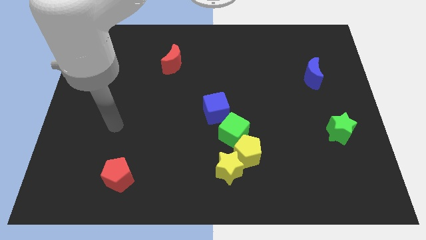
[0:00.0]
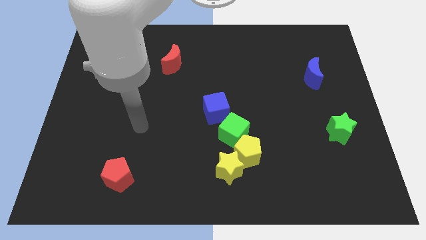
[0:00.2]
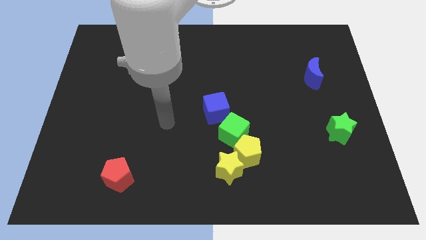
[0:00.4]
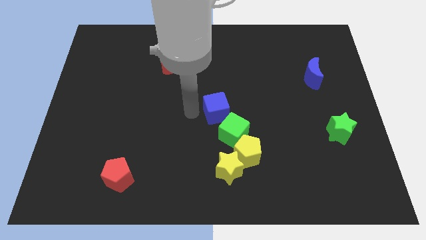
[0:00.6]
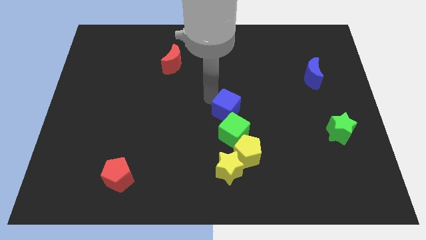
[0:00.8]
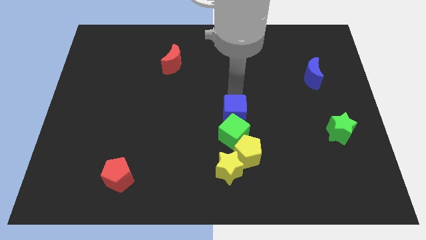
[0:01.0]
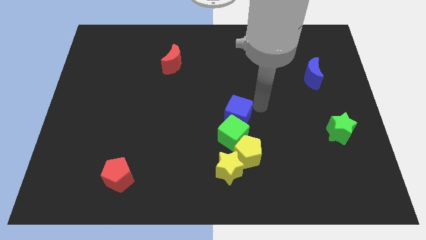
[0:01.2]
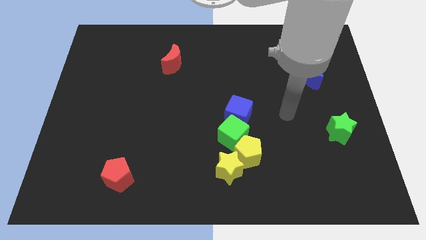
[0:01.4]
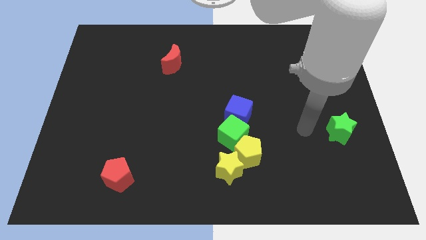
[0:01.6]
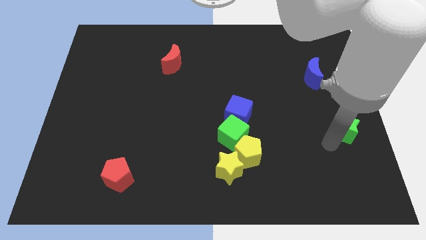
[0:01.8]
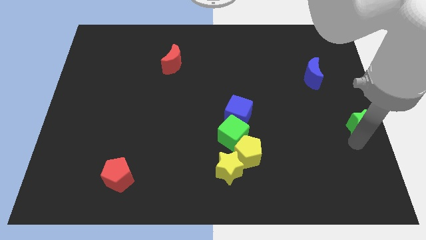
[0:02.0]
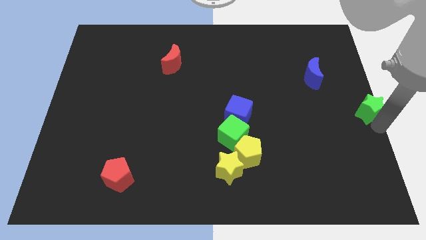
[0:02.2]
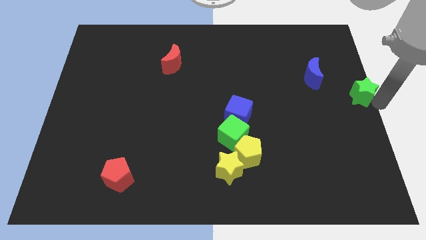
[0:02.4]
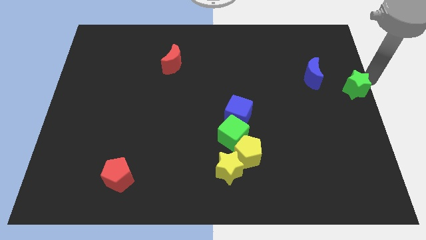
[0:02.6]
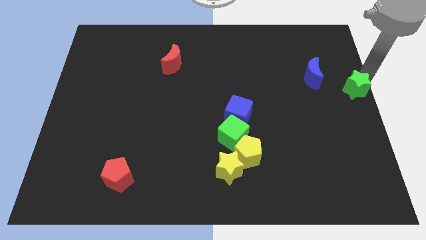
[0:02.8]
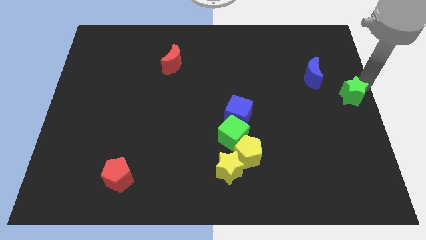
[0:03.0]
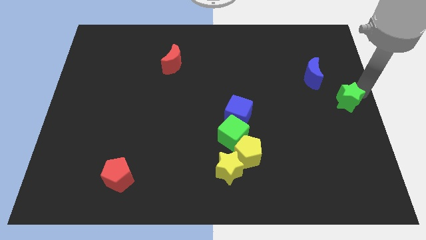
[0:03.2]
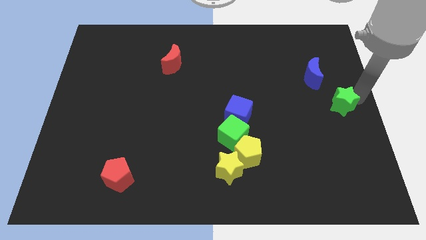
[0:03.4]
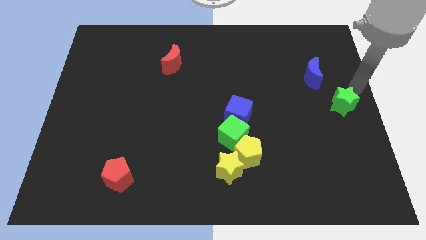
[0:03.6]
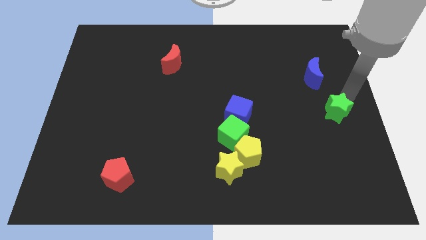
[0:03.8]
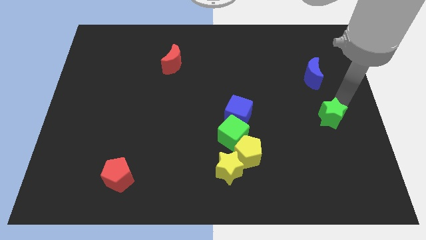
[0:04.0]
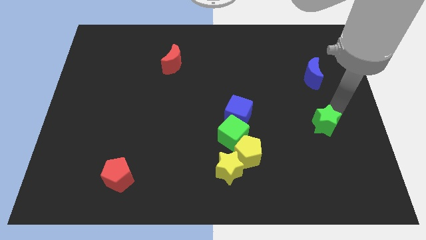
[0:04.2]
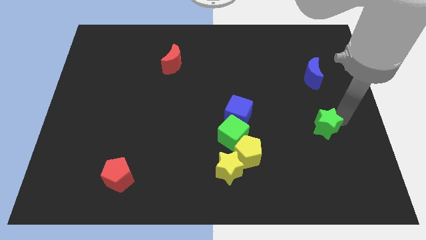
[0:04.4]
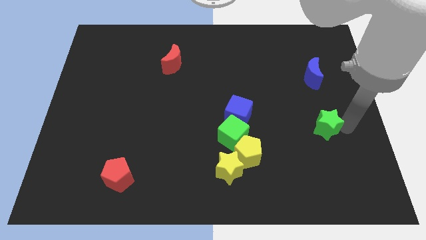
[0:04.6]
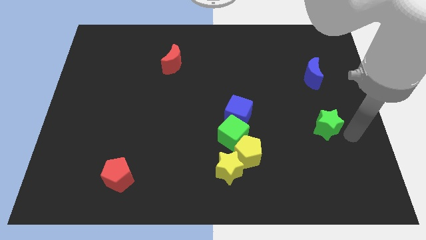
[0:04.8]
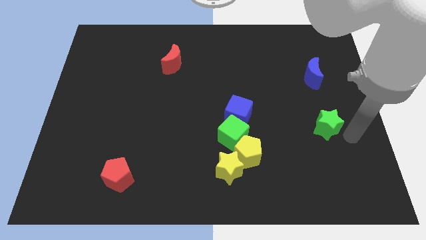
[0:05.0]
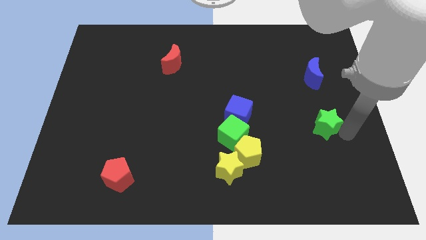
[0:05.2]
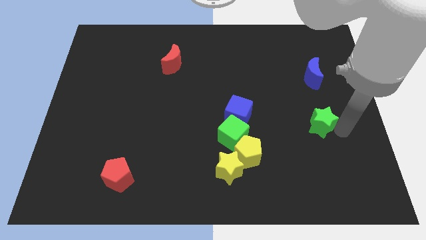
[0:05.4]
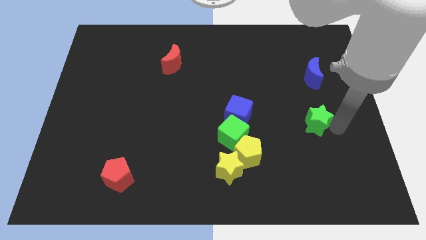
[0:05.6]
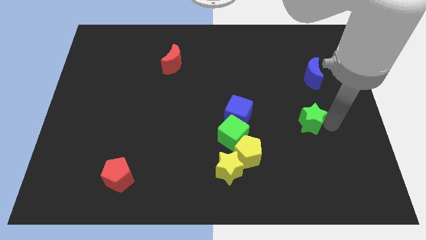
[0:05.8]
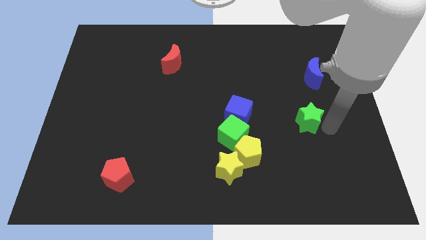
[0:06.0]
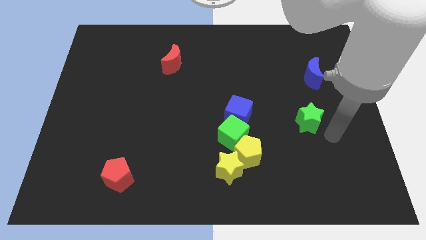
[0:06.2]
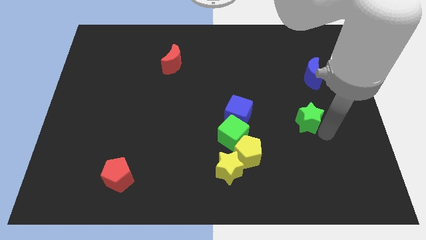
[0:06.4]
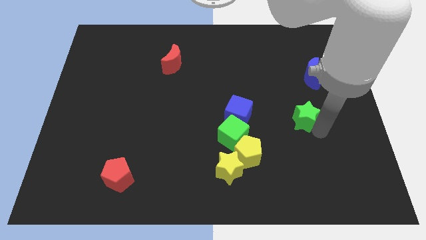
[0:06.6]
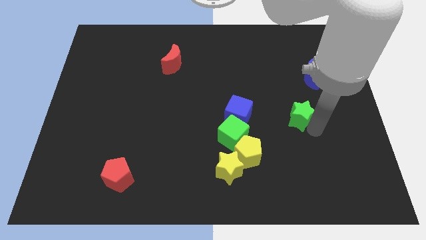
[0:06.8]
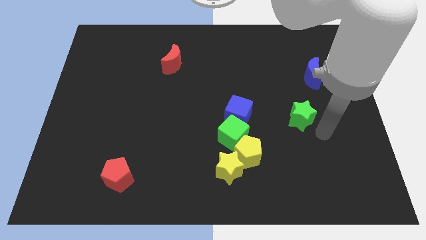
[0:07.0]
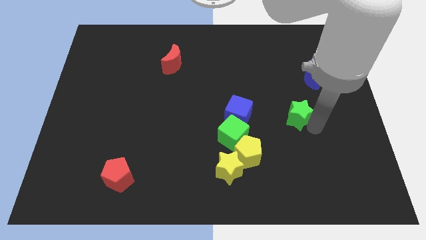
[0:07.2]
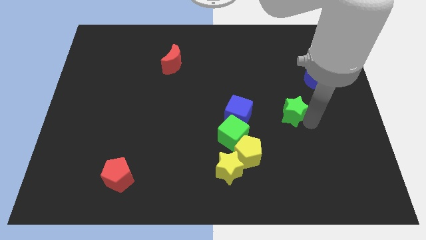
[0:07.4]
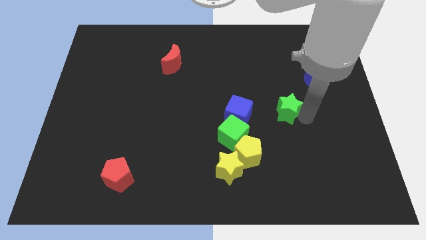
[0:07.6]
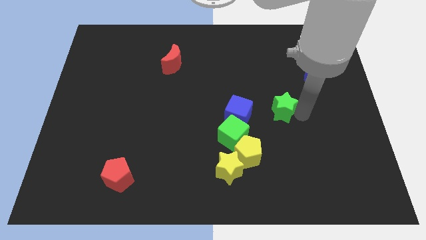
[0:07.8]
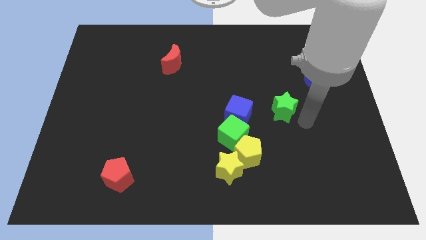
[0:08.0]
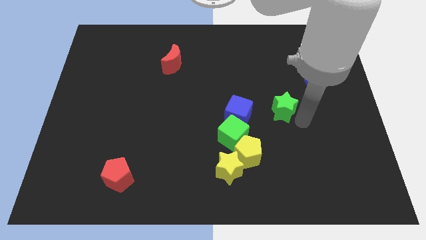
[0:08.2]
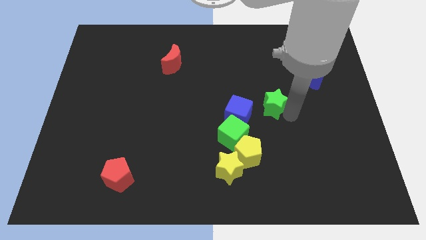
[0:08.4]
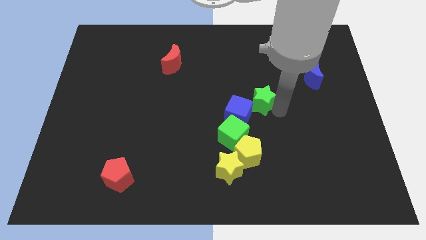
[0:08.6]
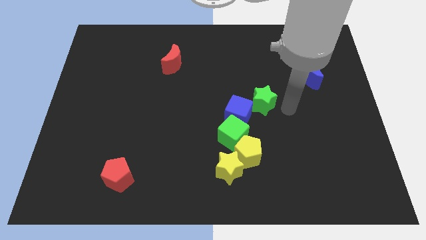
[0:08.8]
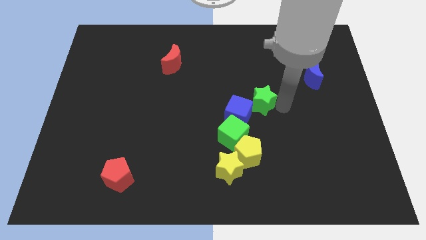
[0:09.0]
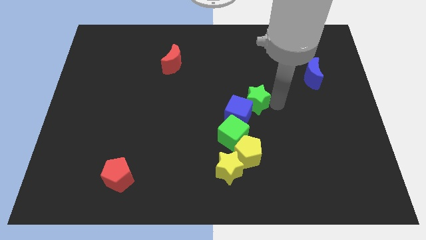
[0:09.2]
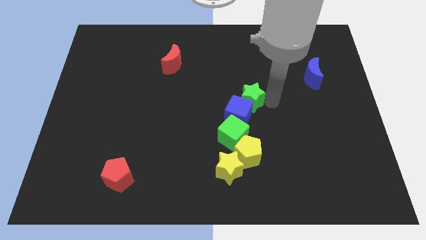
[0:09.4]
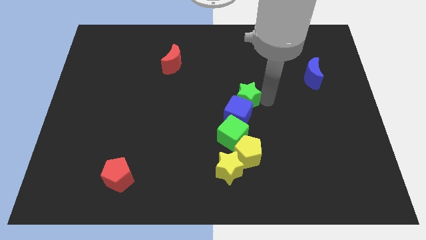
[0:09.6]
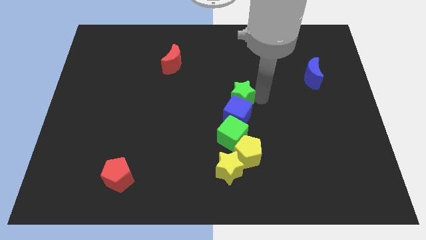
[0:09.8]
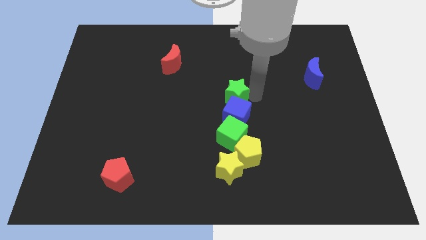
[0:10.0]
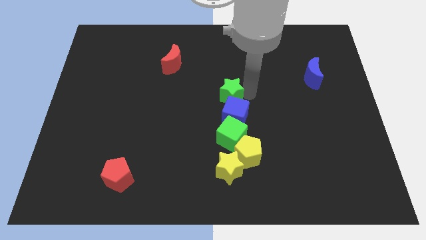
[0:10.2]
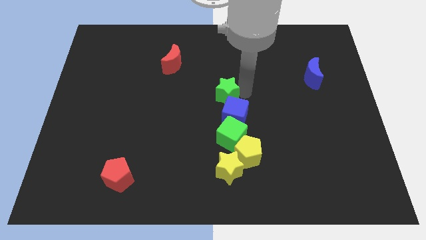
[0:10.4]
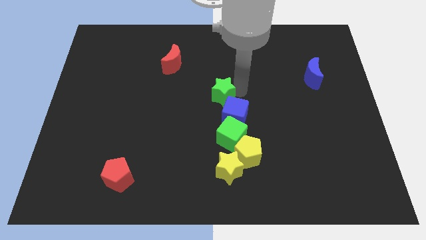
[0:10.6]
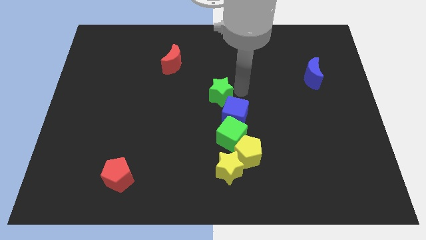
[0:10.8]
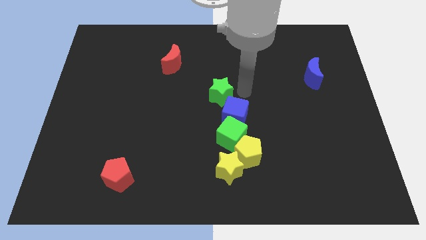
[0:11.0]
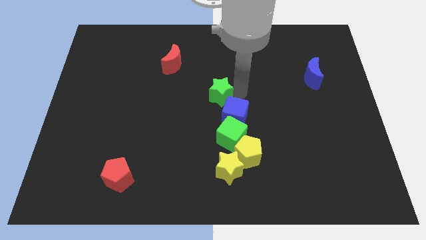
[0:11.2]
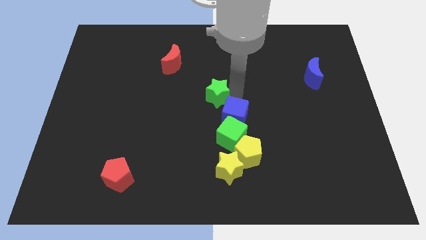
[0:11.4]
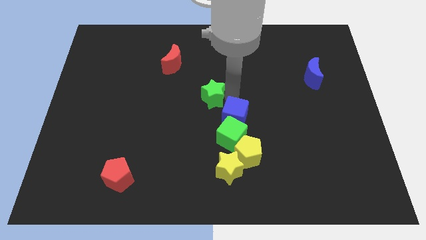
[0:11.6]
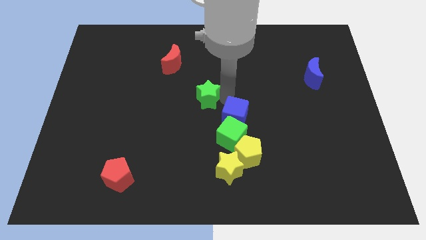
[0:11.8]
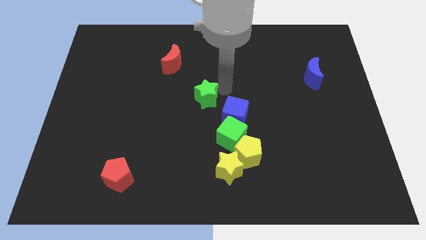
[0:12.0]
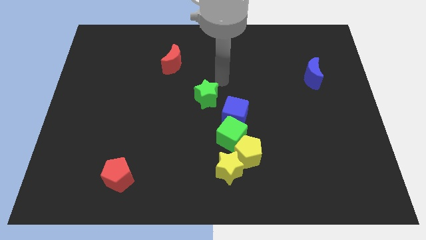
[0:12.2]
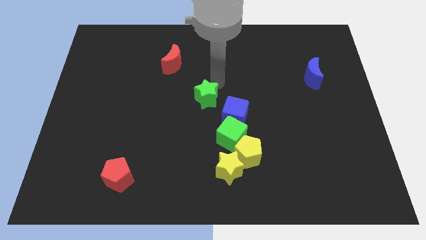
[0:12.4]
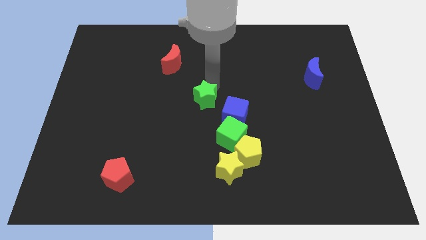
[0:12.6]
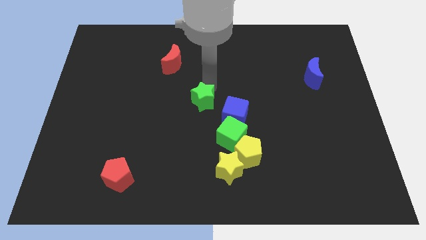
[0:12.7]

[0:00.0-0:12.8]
slide the green star to the left side of the blue cube

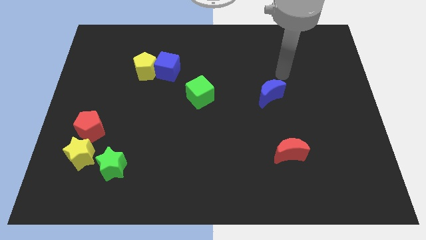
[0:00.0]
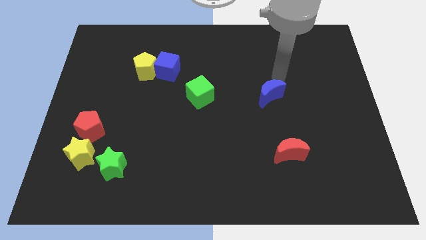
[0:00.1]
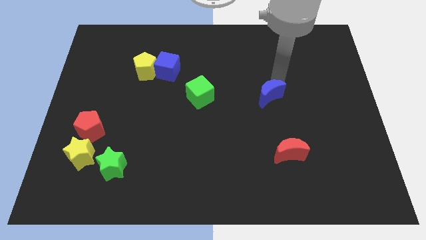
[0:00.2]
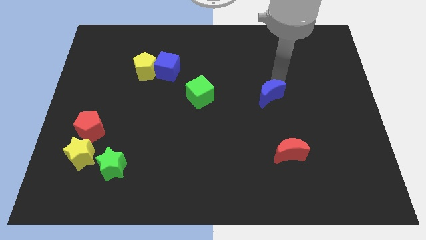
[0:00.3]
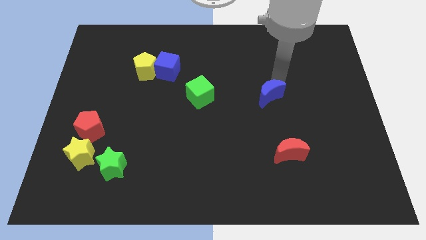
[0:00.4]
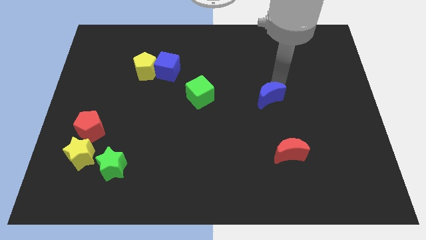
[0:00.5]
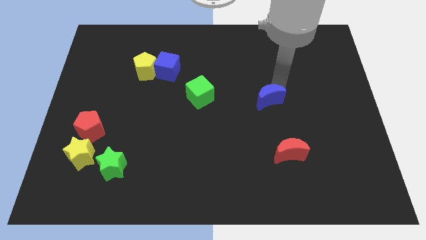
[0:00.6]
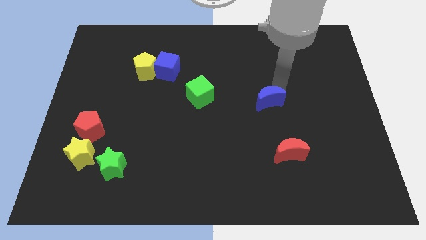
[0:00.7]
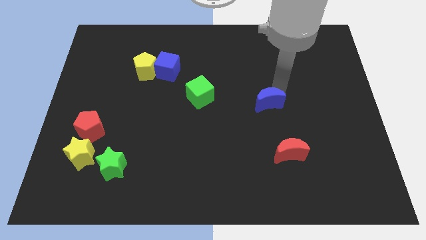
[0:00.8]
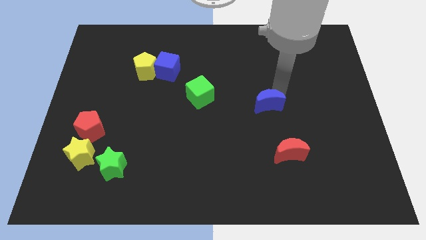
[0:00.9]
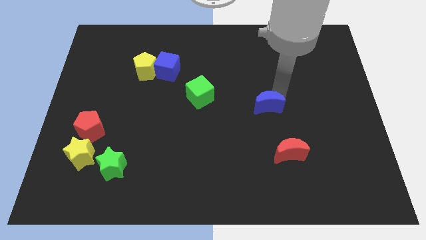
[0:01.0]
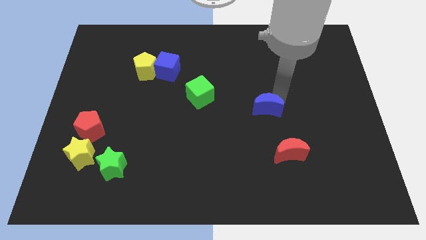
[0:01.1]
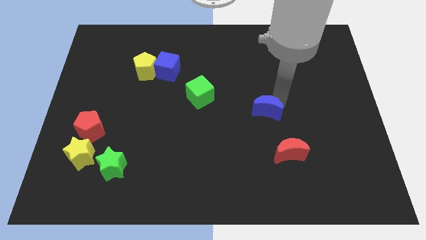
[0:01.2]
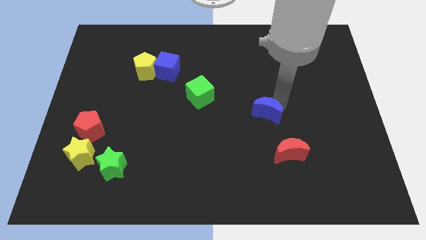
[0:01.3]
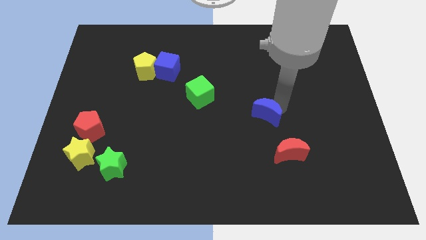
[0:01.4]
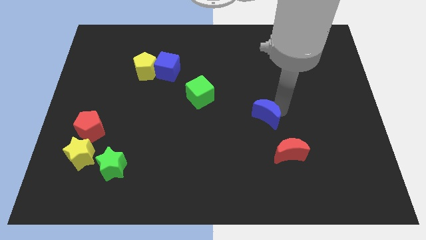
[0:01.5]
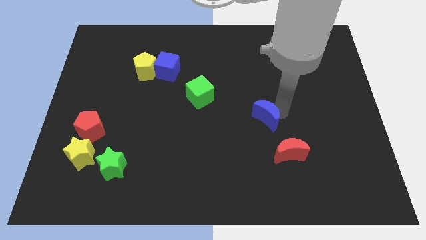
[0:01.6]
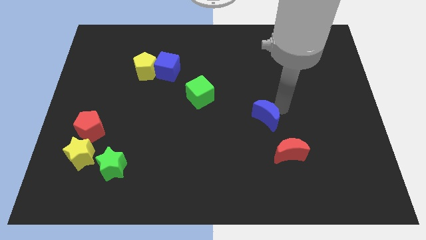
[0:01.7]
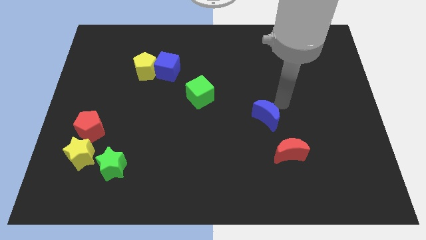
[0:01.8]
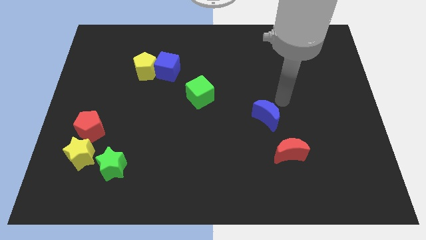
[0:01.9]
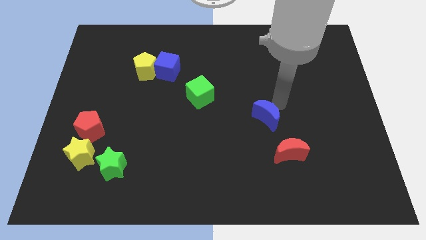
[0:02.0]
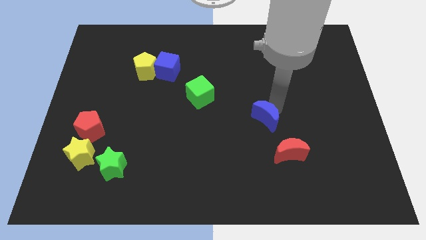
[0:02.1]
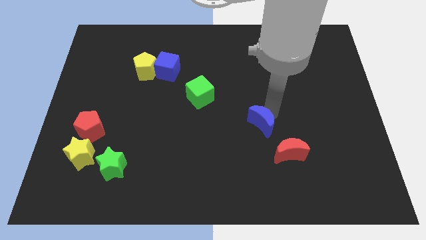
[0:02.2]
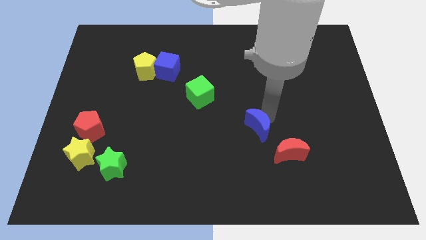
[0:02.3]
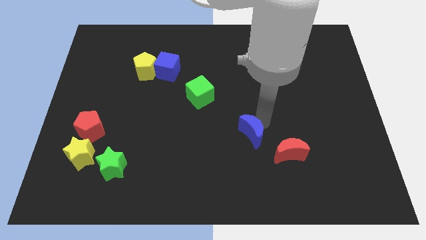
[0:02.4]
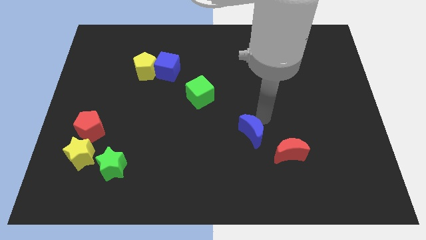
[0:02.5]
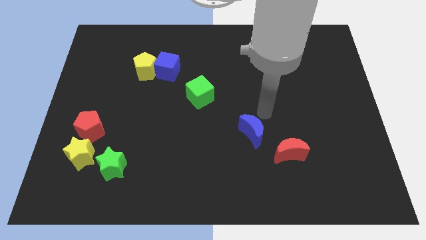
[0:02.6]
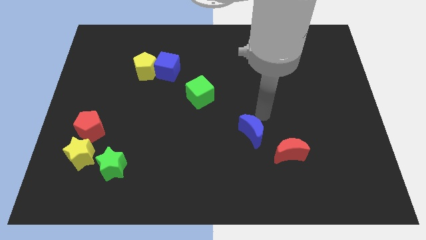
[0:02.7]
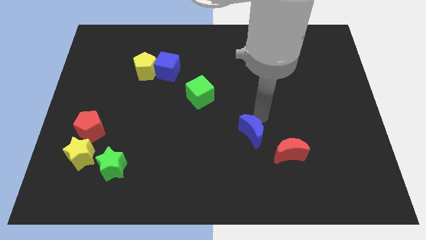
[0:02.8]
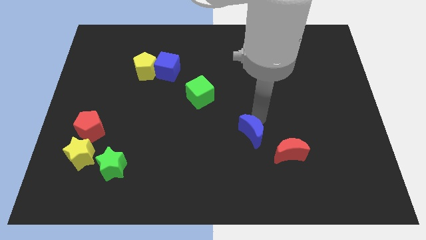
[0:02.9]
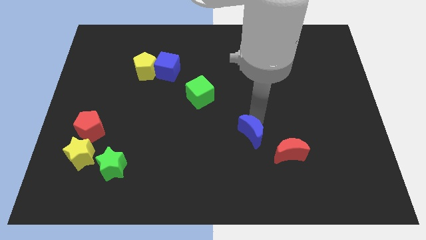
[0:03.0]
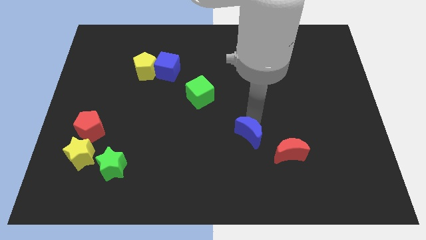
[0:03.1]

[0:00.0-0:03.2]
move the blue moon just left of the red moon
